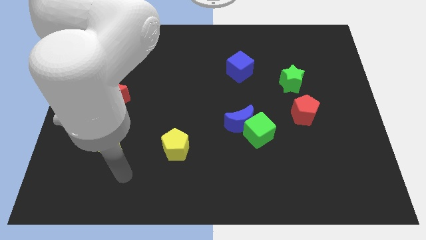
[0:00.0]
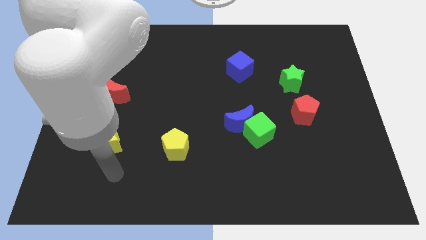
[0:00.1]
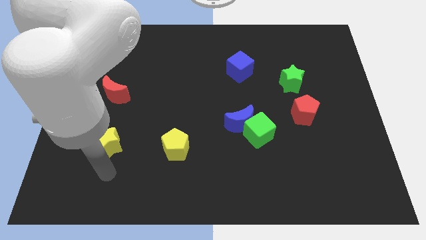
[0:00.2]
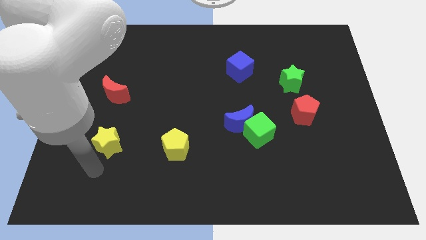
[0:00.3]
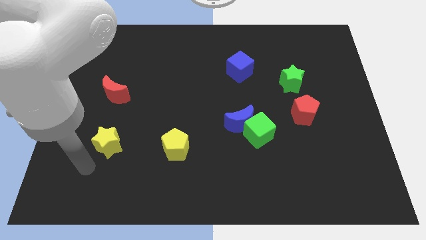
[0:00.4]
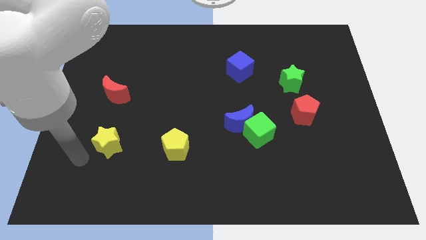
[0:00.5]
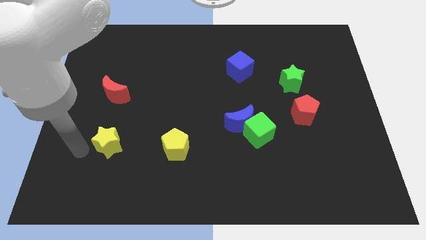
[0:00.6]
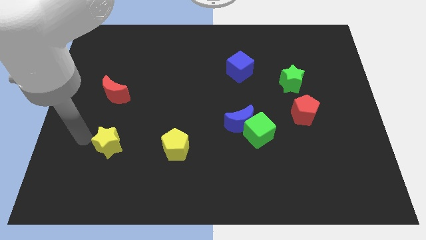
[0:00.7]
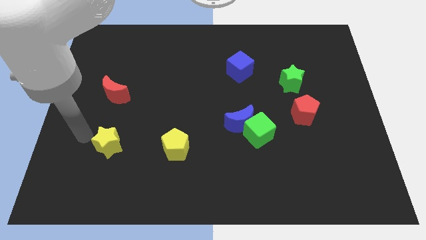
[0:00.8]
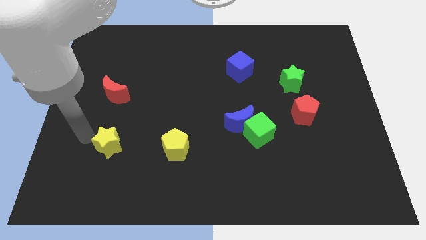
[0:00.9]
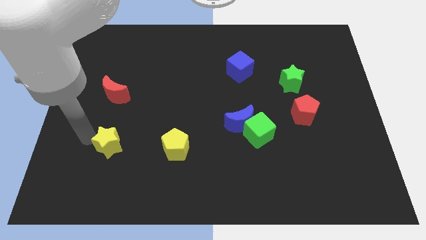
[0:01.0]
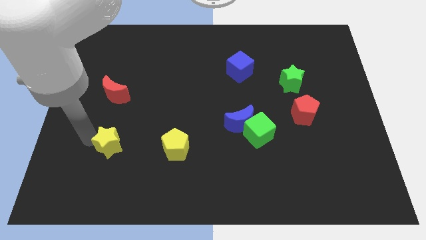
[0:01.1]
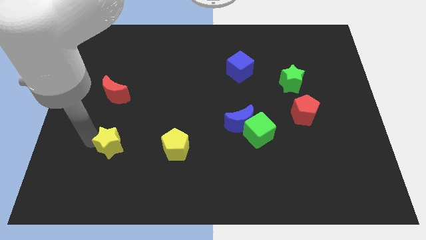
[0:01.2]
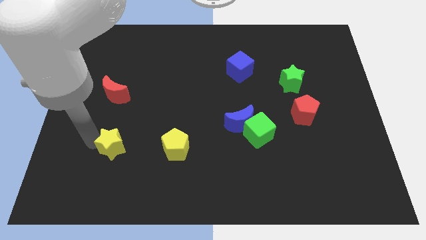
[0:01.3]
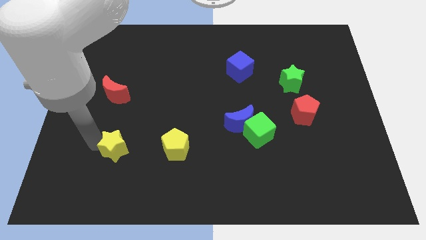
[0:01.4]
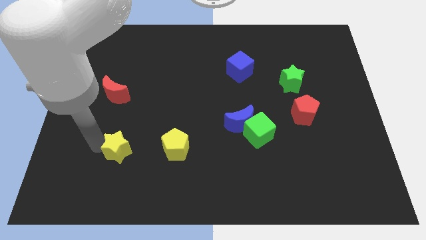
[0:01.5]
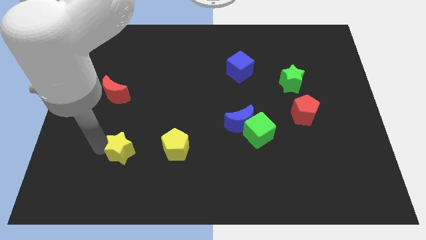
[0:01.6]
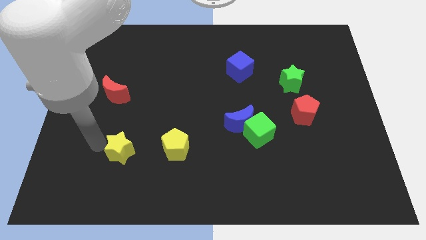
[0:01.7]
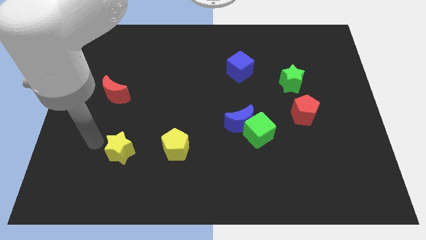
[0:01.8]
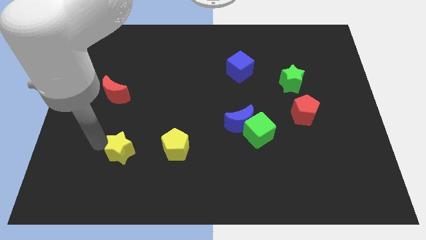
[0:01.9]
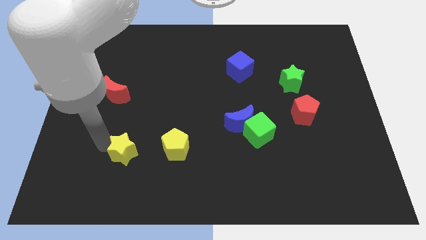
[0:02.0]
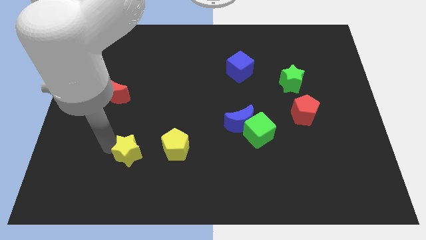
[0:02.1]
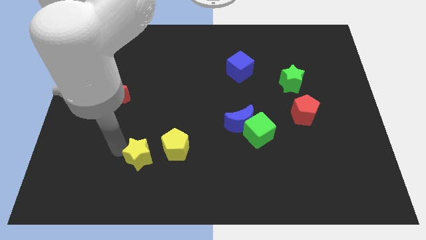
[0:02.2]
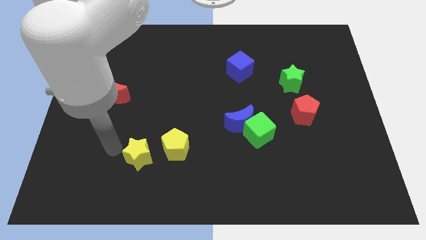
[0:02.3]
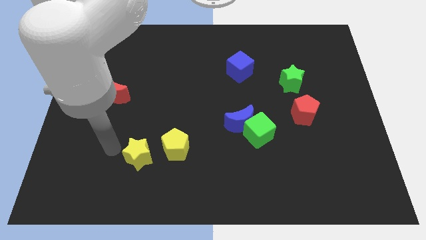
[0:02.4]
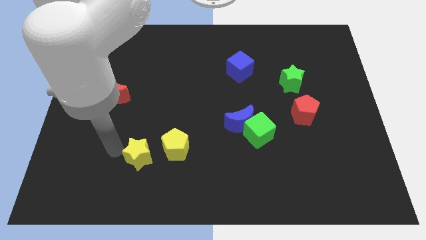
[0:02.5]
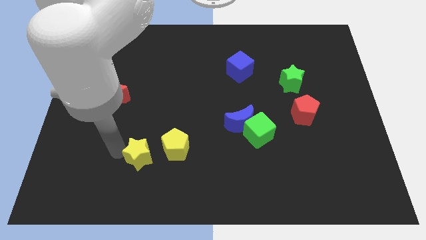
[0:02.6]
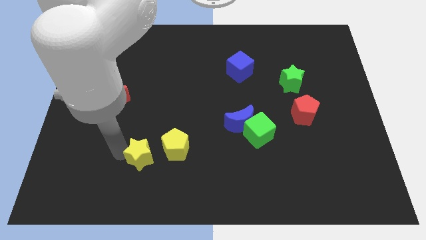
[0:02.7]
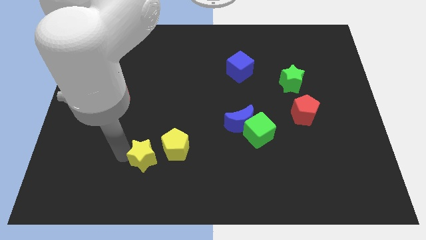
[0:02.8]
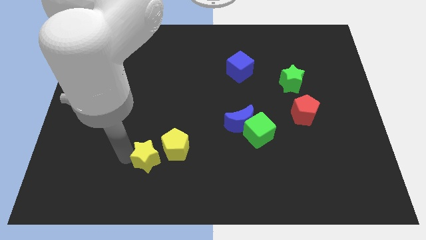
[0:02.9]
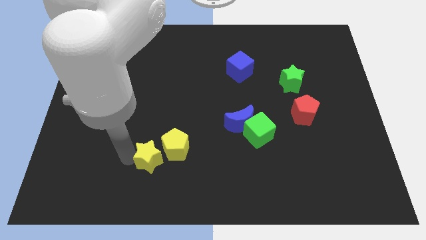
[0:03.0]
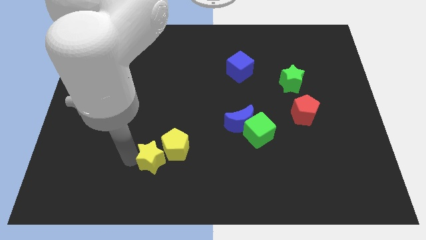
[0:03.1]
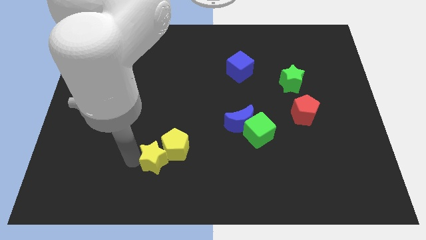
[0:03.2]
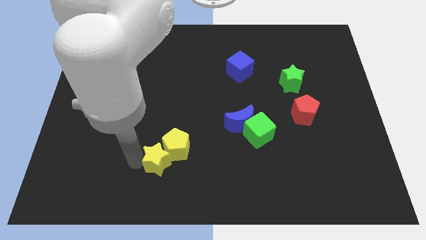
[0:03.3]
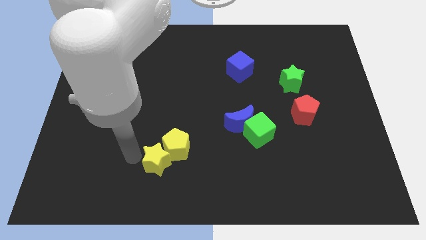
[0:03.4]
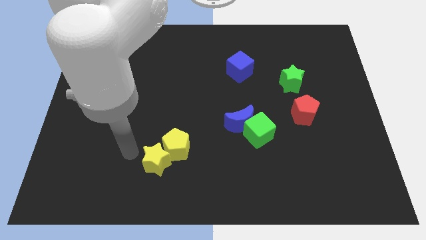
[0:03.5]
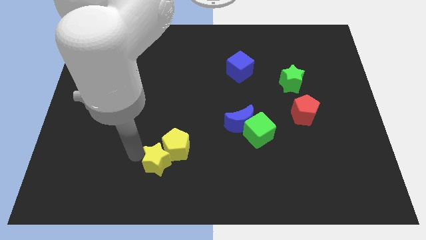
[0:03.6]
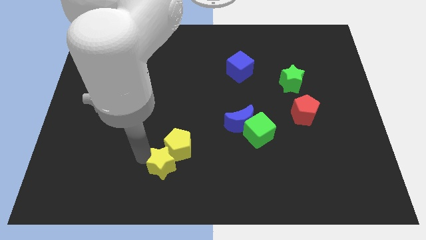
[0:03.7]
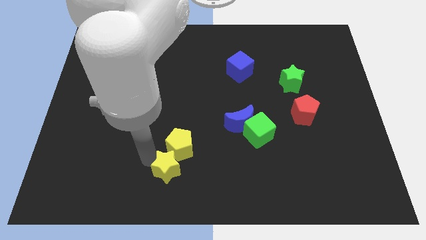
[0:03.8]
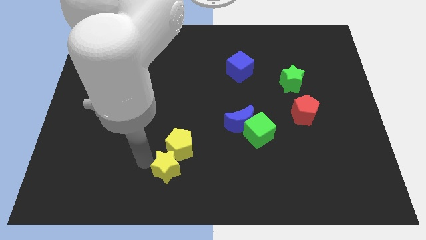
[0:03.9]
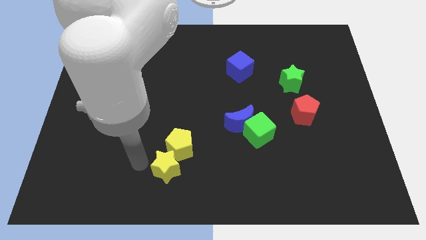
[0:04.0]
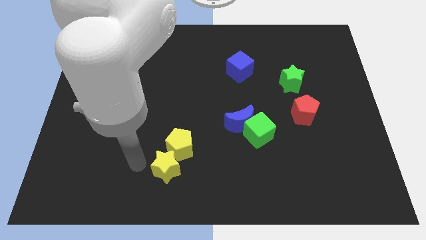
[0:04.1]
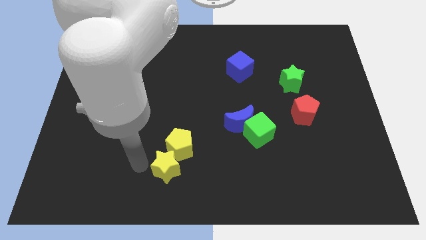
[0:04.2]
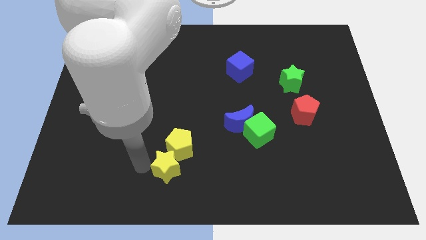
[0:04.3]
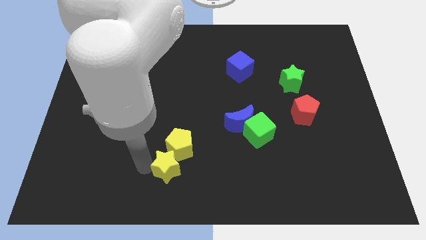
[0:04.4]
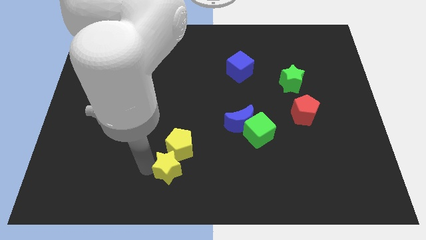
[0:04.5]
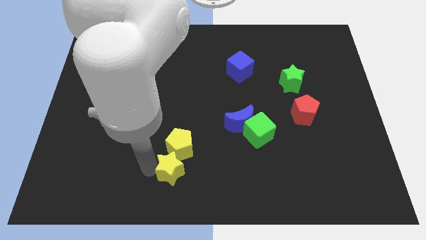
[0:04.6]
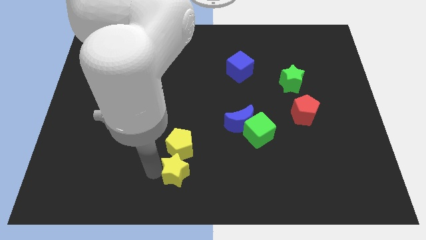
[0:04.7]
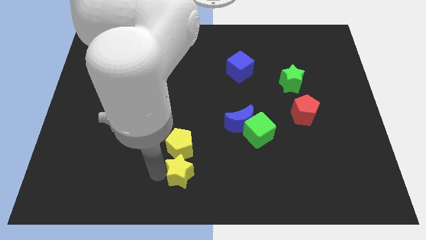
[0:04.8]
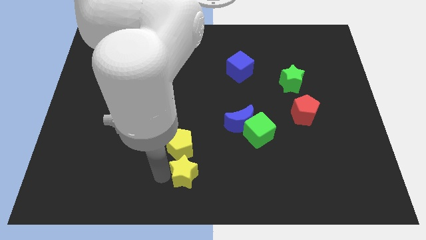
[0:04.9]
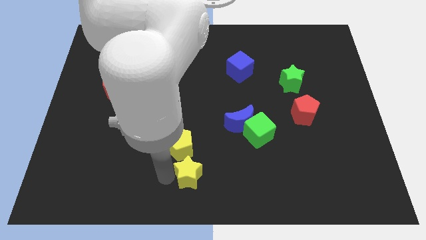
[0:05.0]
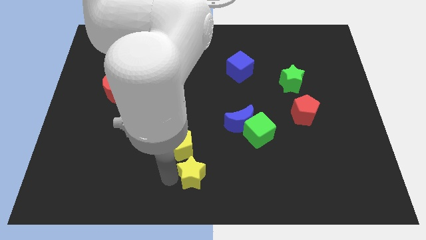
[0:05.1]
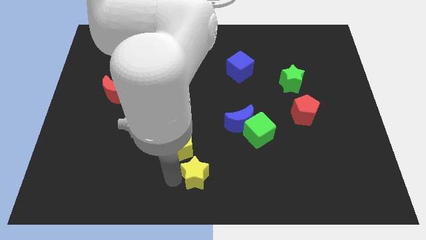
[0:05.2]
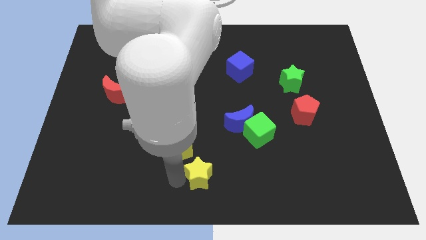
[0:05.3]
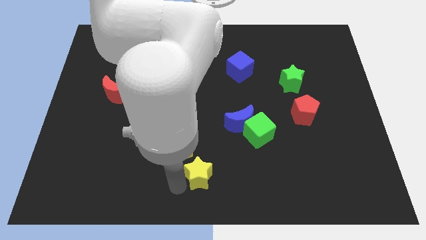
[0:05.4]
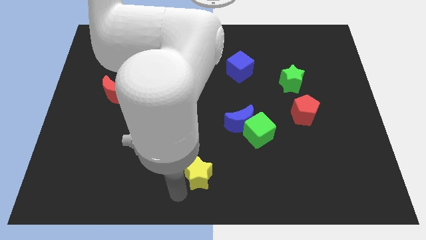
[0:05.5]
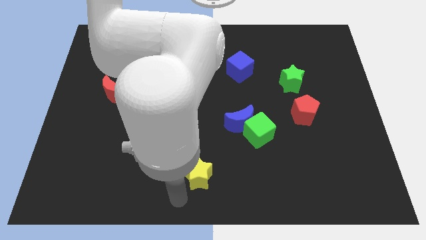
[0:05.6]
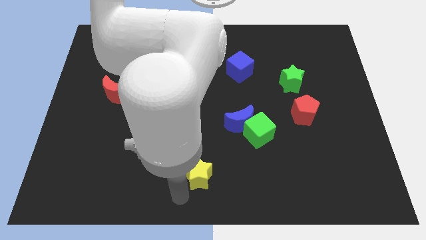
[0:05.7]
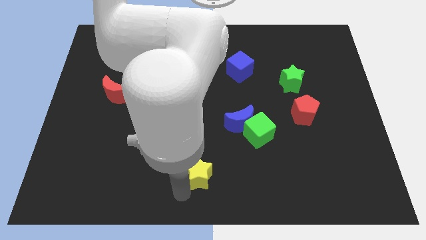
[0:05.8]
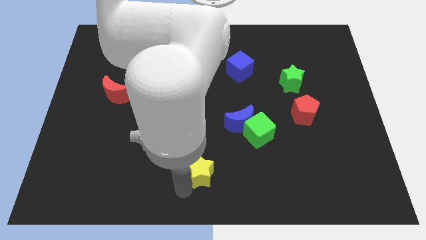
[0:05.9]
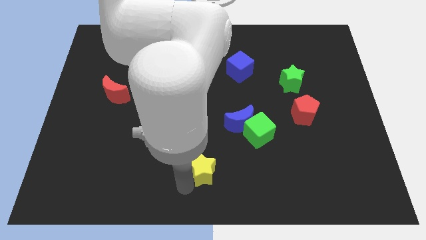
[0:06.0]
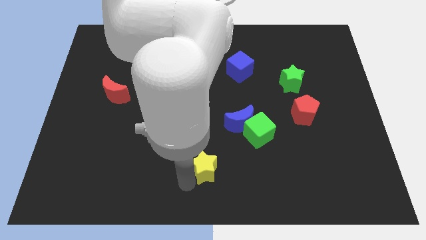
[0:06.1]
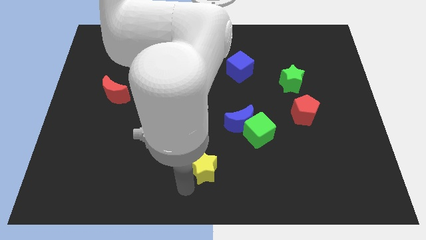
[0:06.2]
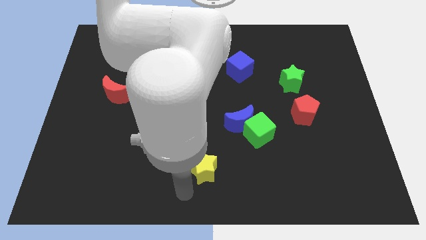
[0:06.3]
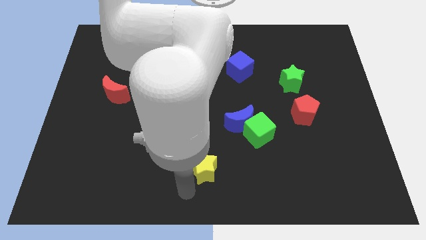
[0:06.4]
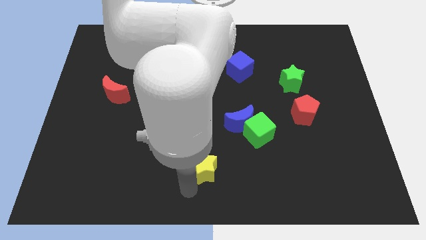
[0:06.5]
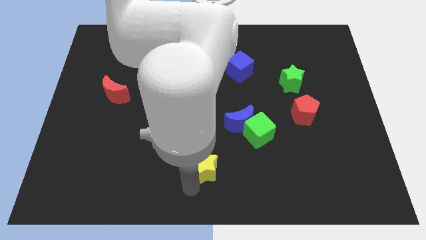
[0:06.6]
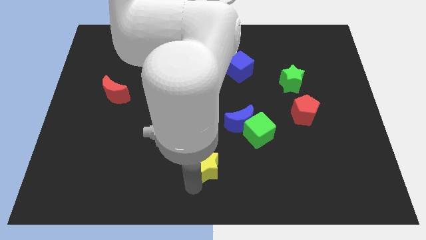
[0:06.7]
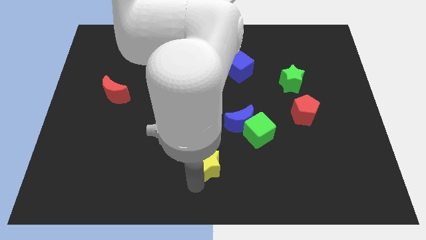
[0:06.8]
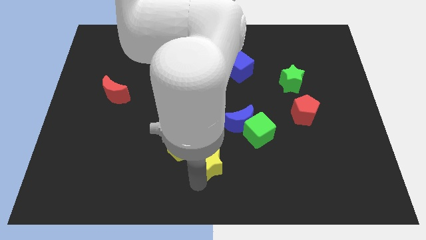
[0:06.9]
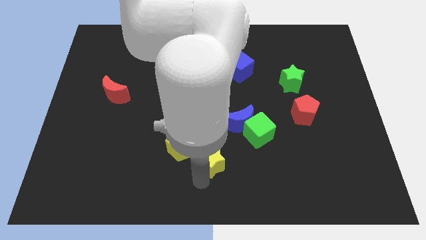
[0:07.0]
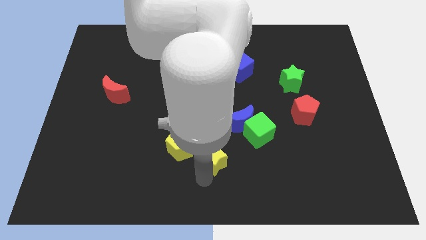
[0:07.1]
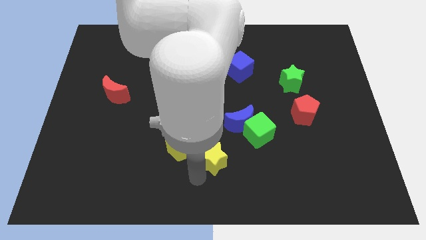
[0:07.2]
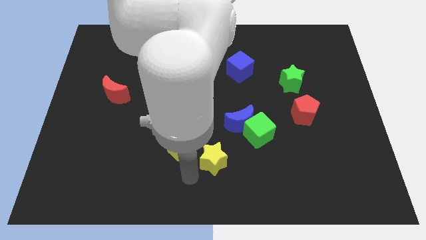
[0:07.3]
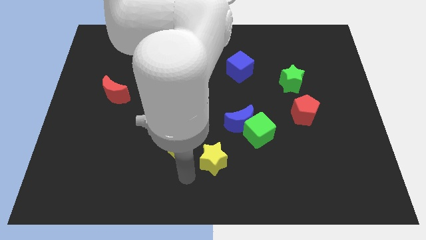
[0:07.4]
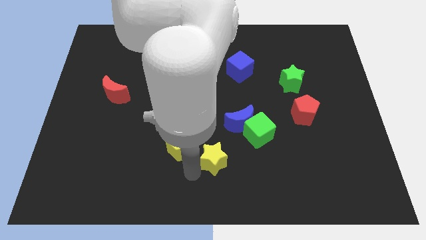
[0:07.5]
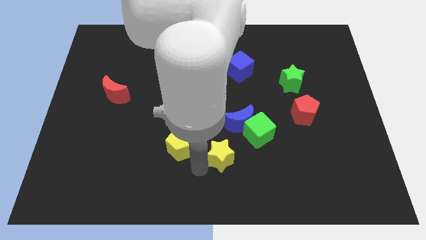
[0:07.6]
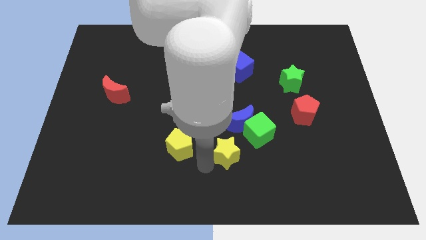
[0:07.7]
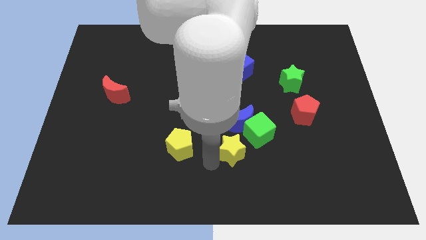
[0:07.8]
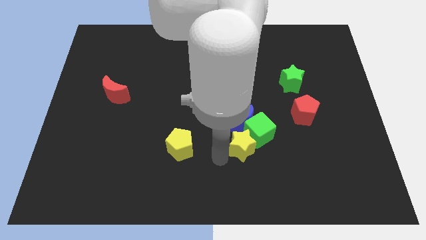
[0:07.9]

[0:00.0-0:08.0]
put the yellow star towards the green cube
